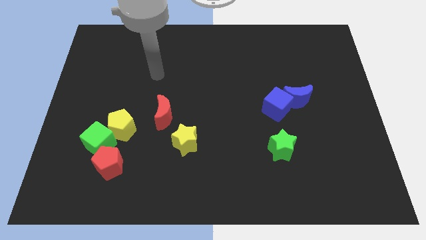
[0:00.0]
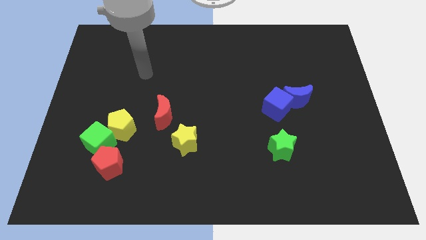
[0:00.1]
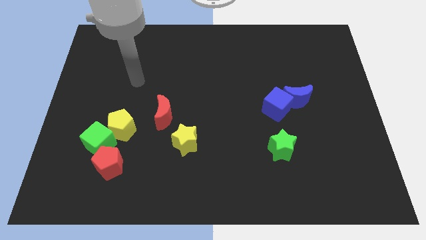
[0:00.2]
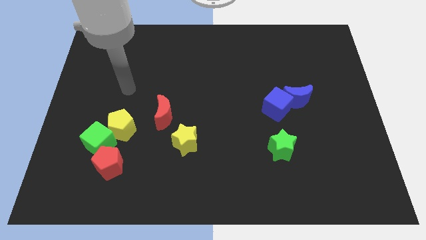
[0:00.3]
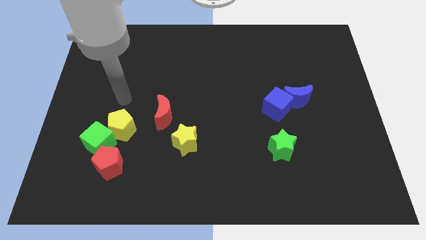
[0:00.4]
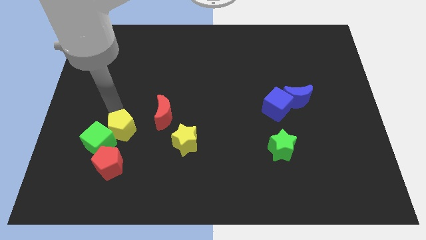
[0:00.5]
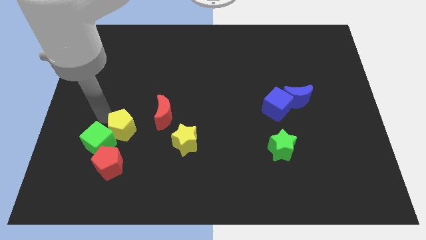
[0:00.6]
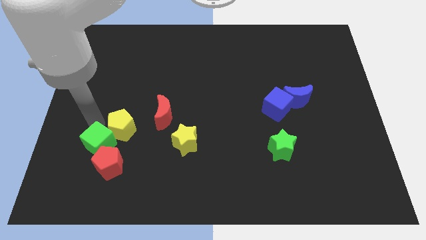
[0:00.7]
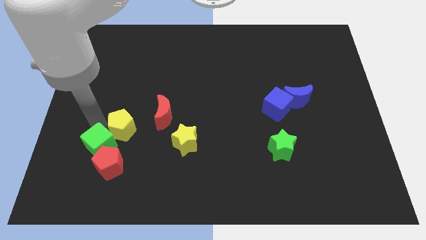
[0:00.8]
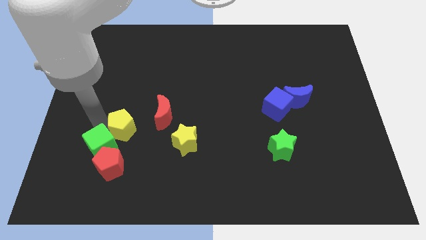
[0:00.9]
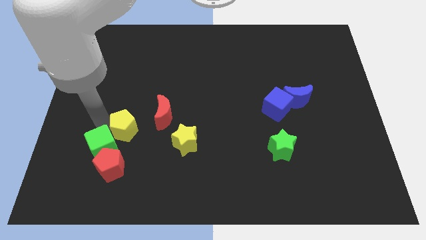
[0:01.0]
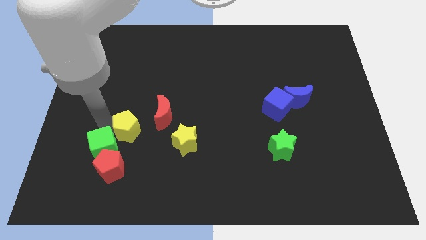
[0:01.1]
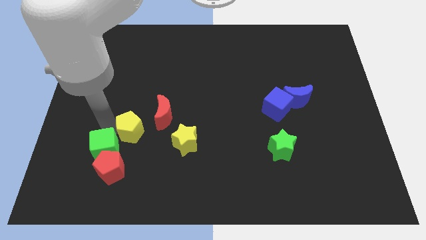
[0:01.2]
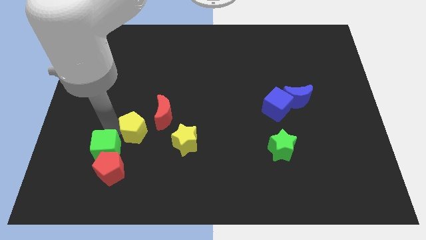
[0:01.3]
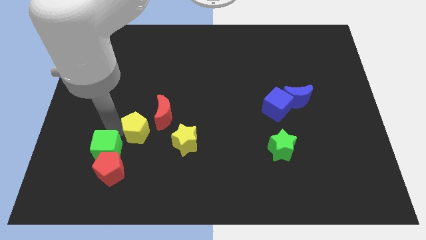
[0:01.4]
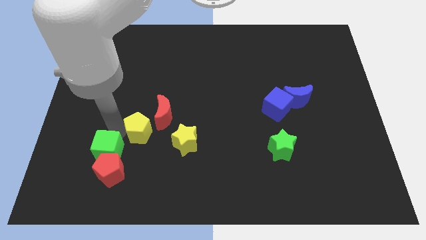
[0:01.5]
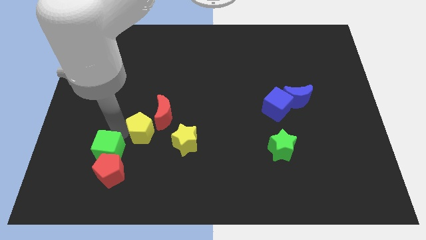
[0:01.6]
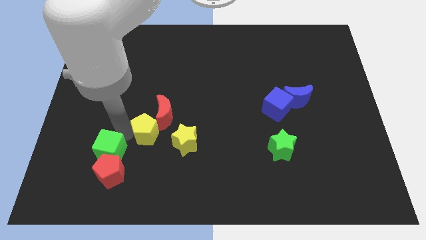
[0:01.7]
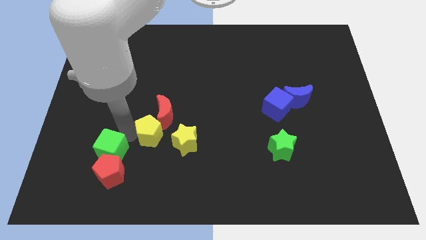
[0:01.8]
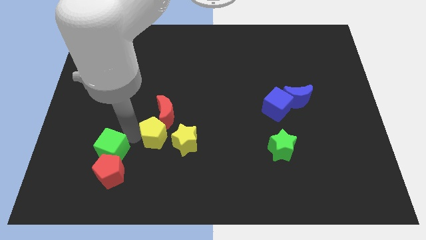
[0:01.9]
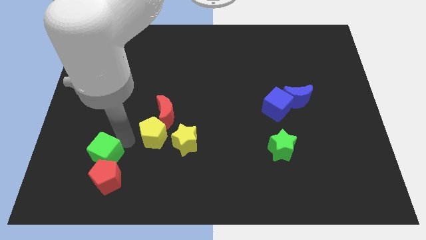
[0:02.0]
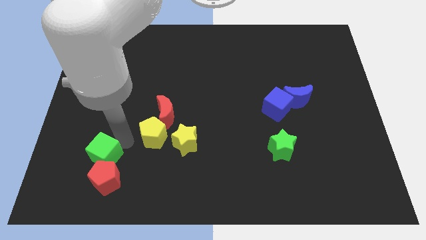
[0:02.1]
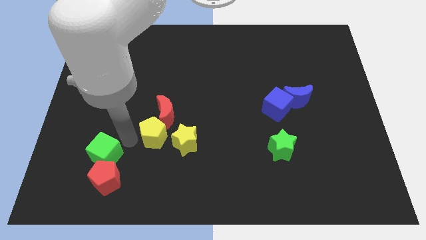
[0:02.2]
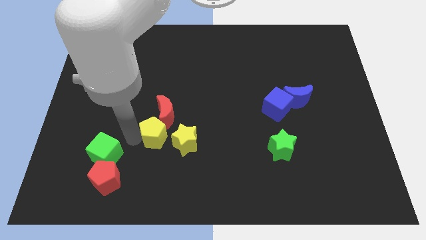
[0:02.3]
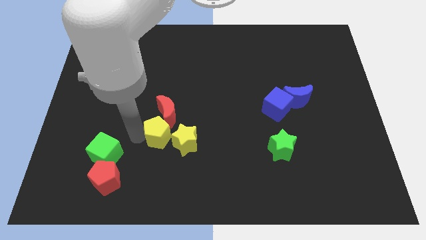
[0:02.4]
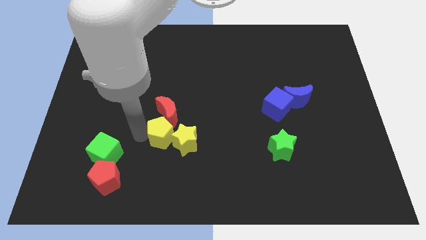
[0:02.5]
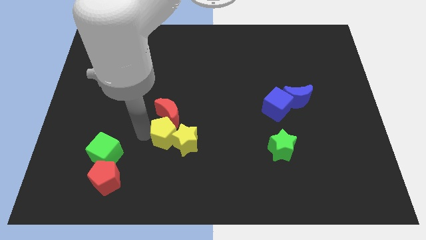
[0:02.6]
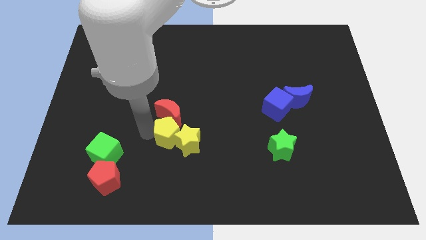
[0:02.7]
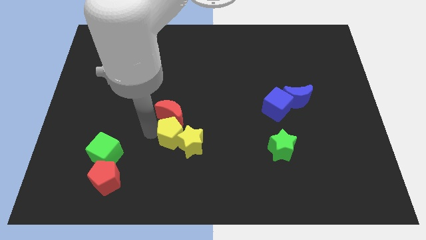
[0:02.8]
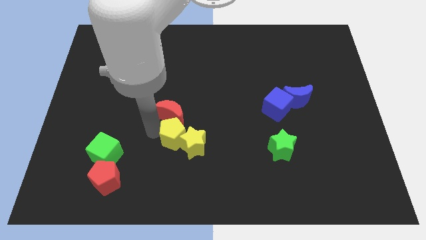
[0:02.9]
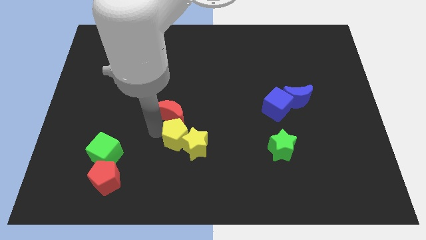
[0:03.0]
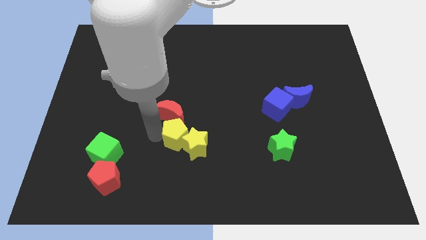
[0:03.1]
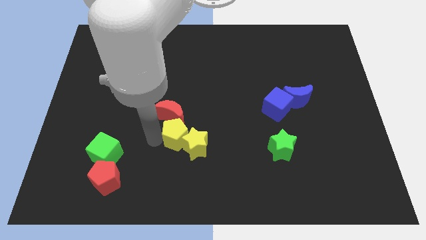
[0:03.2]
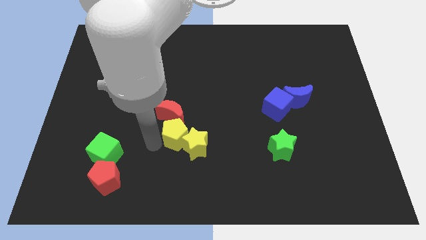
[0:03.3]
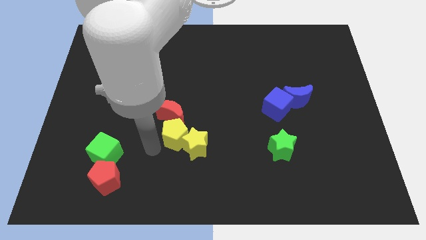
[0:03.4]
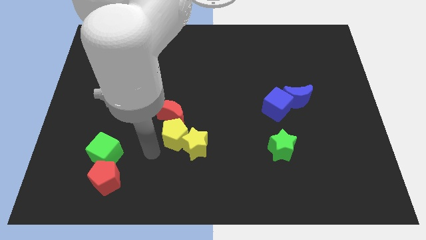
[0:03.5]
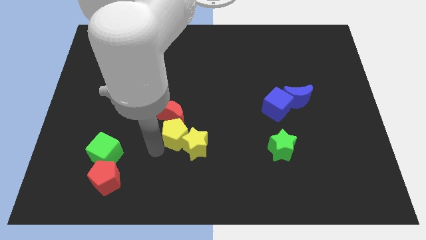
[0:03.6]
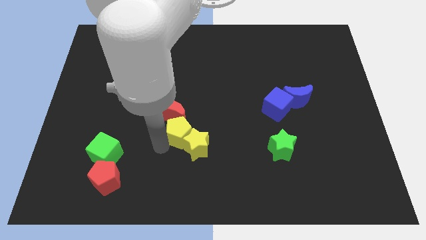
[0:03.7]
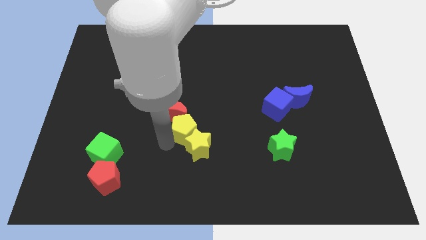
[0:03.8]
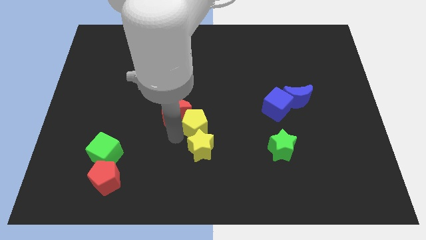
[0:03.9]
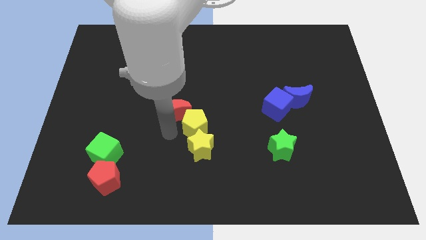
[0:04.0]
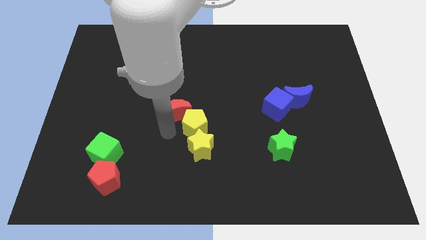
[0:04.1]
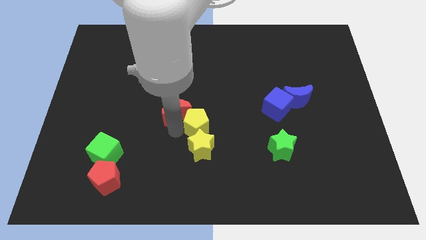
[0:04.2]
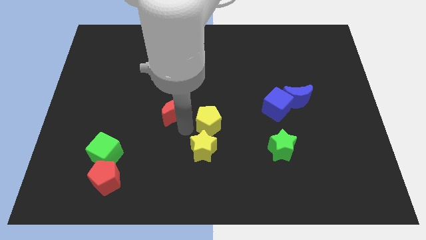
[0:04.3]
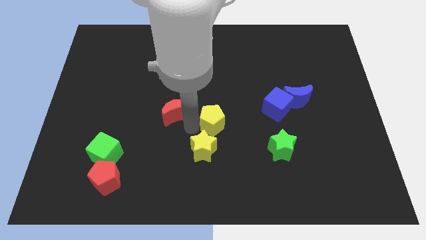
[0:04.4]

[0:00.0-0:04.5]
move the yellow pentagon right

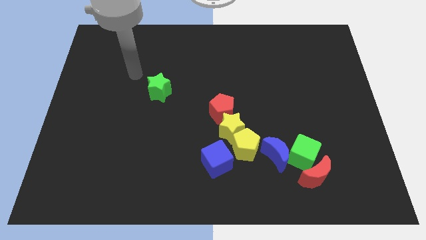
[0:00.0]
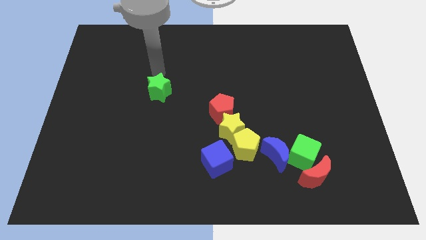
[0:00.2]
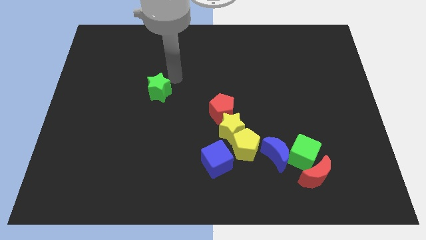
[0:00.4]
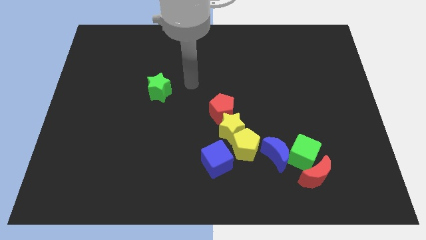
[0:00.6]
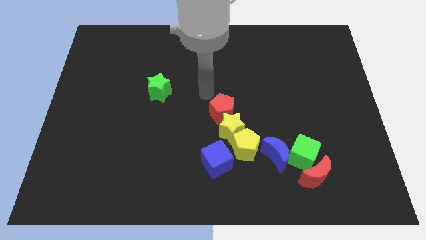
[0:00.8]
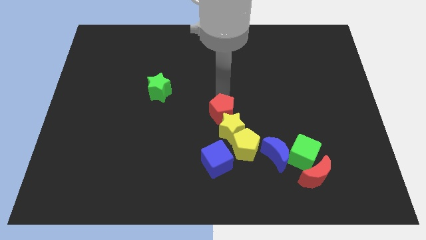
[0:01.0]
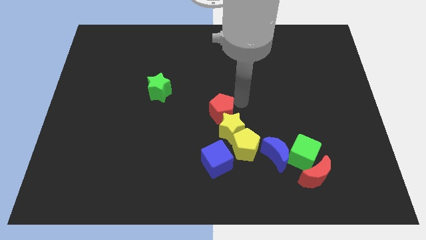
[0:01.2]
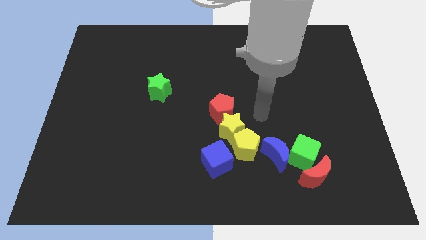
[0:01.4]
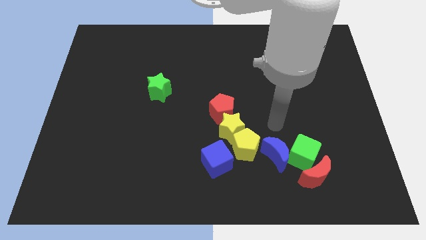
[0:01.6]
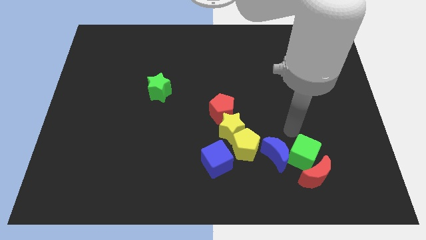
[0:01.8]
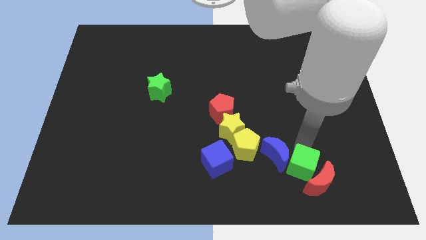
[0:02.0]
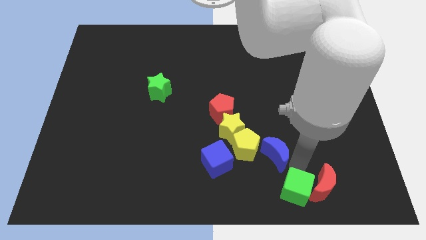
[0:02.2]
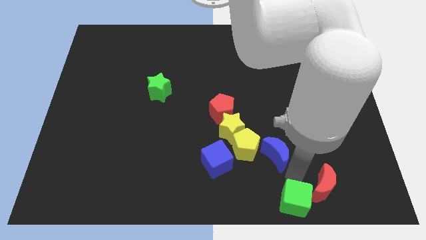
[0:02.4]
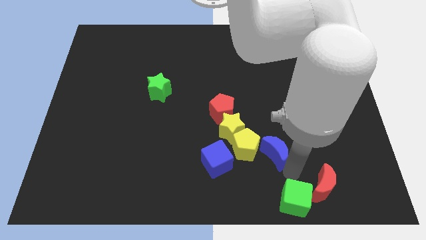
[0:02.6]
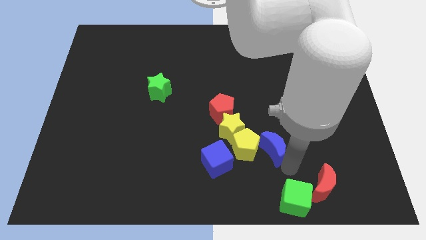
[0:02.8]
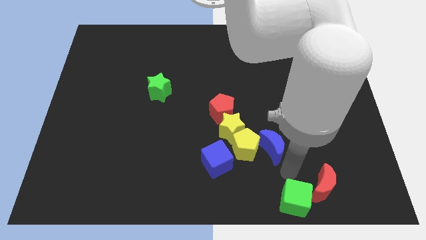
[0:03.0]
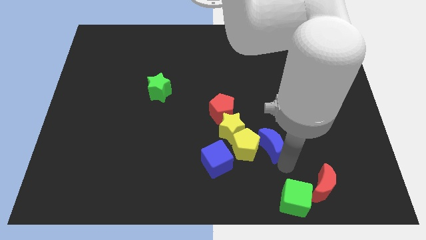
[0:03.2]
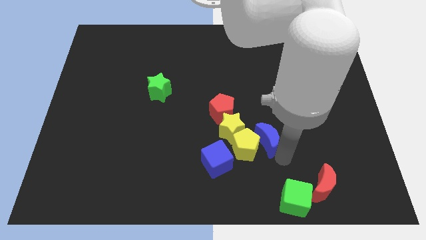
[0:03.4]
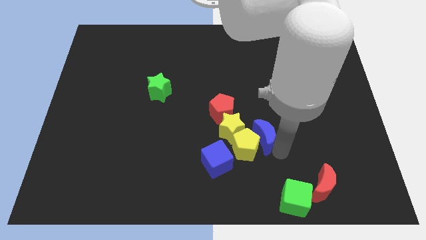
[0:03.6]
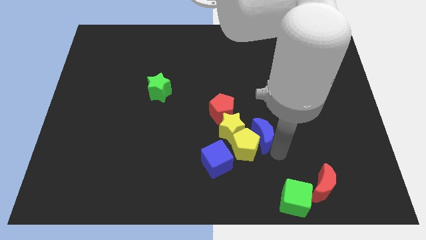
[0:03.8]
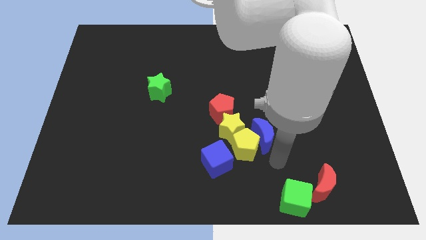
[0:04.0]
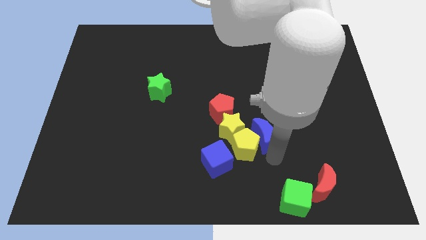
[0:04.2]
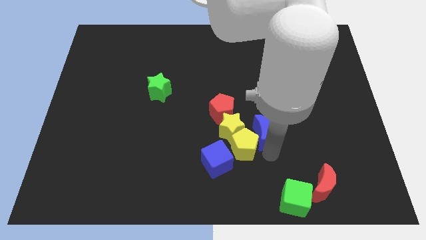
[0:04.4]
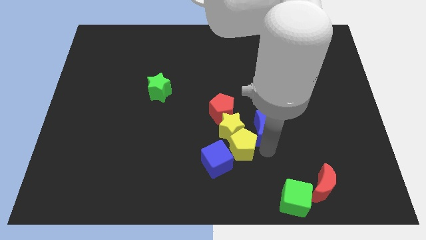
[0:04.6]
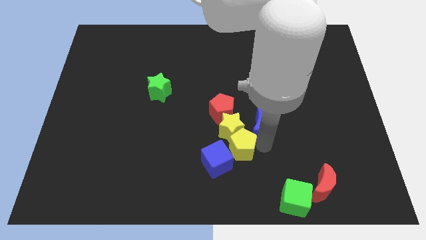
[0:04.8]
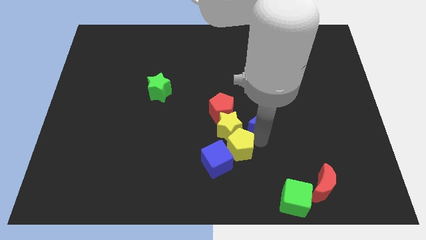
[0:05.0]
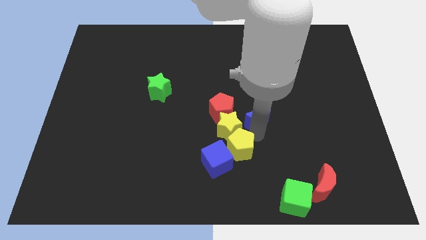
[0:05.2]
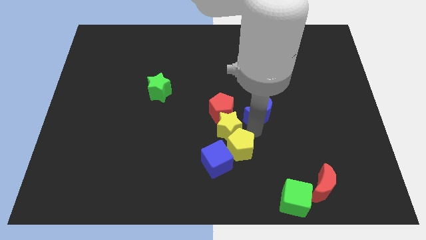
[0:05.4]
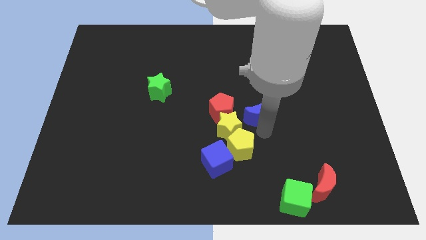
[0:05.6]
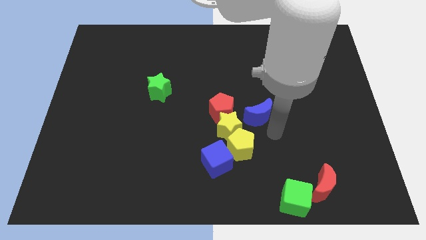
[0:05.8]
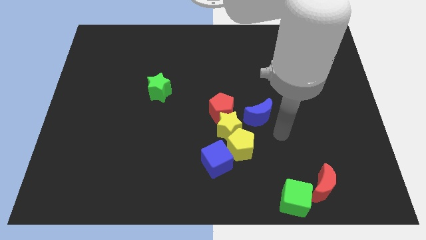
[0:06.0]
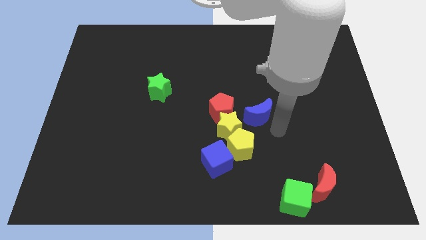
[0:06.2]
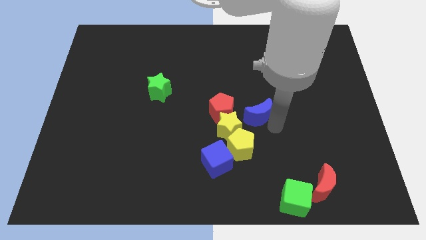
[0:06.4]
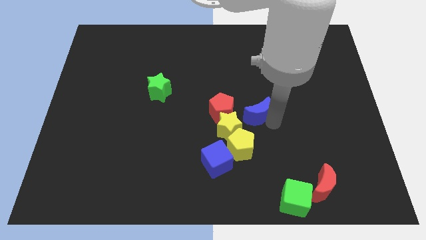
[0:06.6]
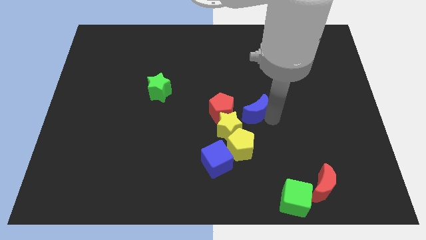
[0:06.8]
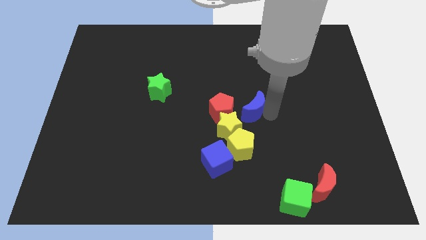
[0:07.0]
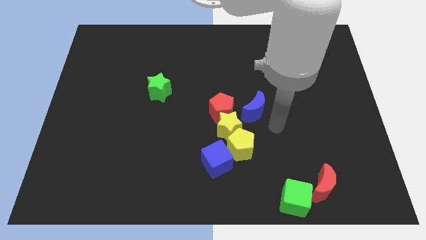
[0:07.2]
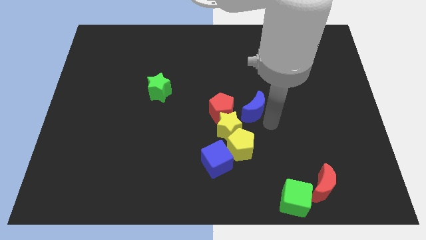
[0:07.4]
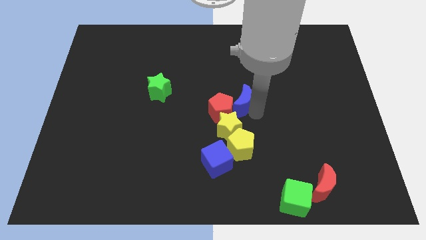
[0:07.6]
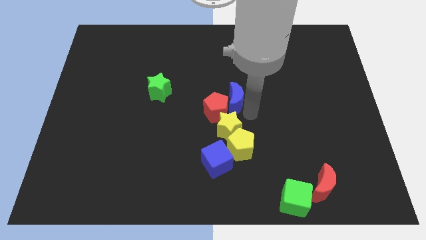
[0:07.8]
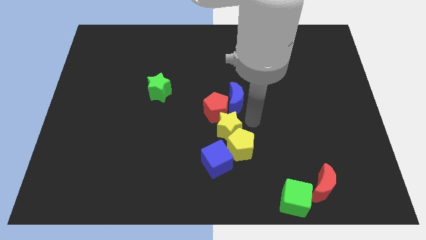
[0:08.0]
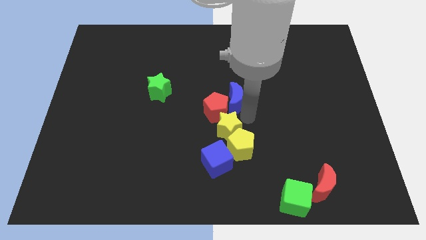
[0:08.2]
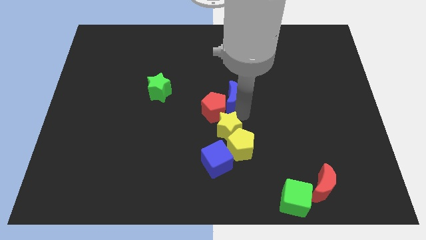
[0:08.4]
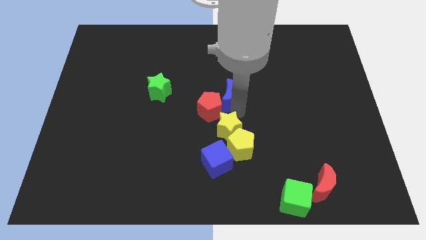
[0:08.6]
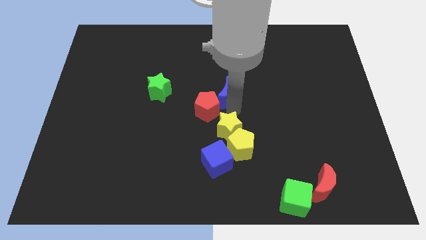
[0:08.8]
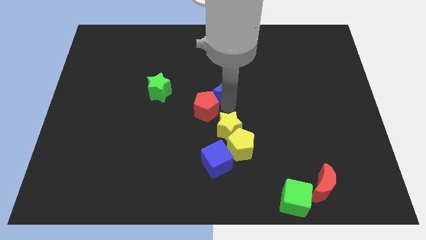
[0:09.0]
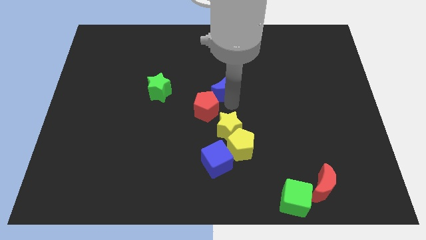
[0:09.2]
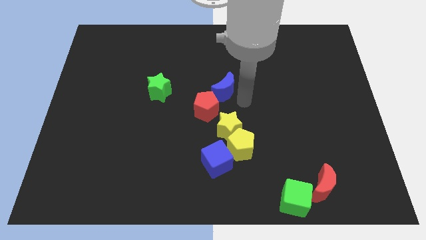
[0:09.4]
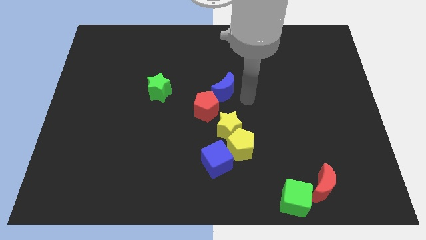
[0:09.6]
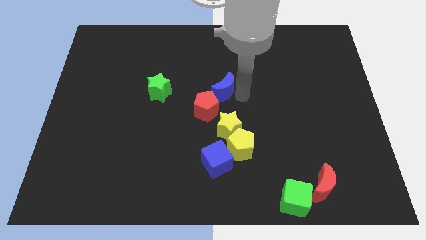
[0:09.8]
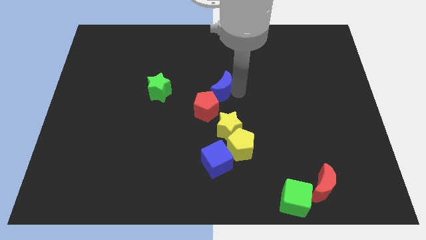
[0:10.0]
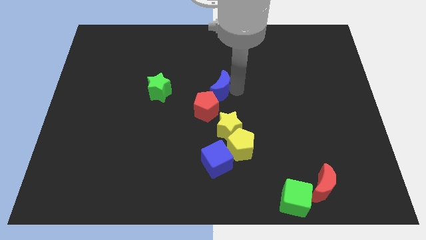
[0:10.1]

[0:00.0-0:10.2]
move the blue moon up and to the left diagonally
